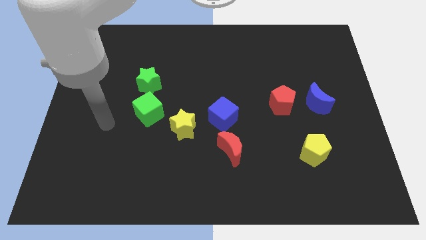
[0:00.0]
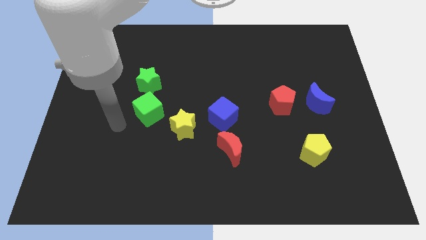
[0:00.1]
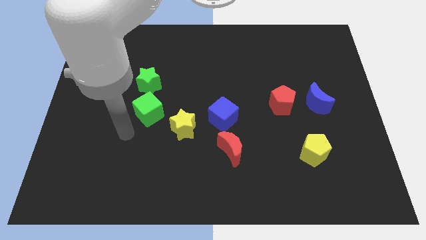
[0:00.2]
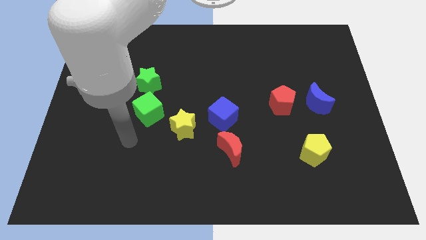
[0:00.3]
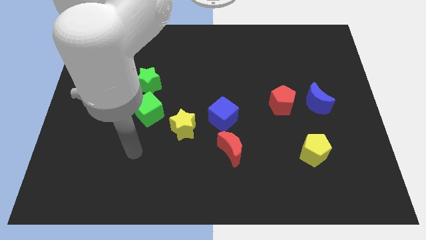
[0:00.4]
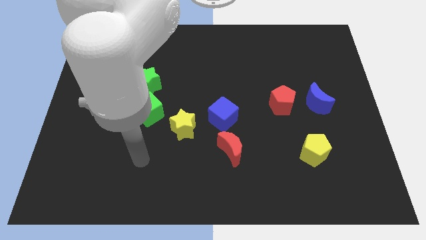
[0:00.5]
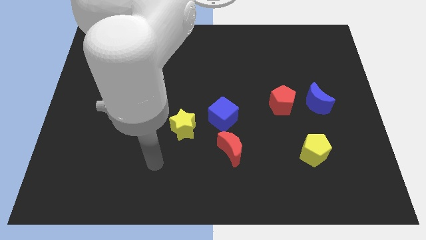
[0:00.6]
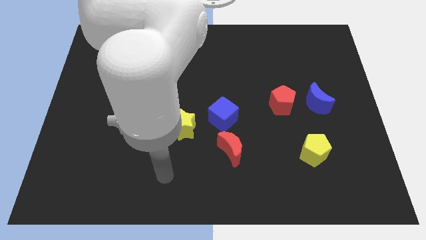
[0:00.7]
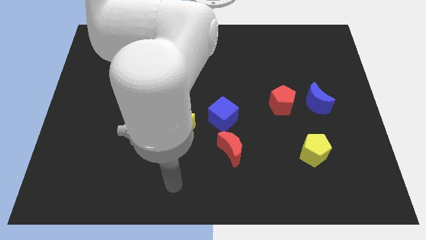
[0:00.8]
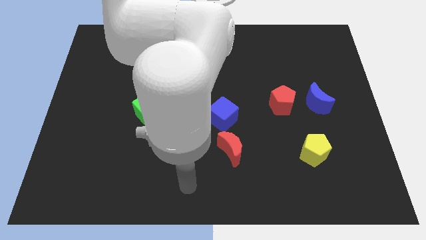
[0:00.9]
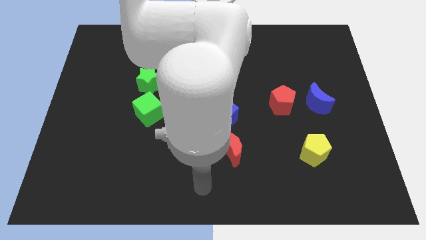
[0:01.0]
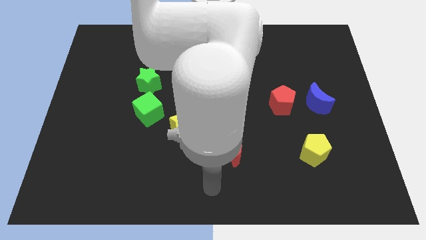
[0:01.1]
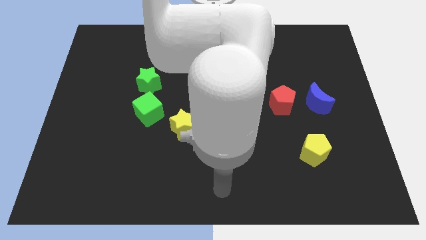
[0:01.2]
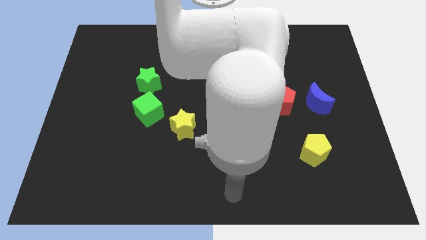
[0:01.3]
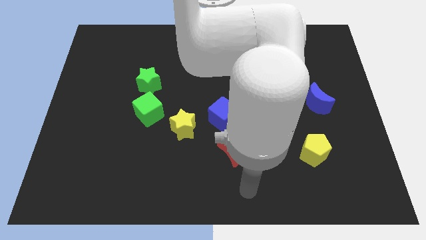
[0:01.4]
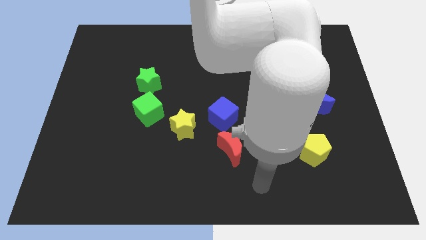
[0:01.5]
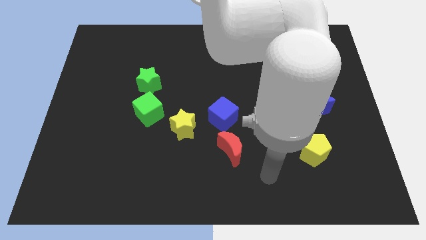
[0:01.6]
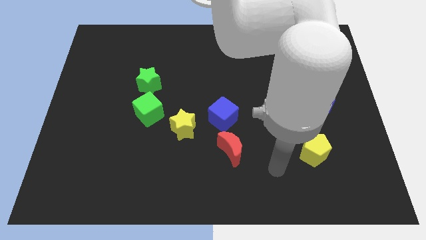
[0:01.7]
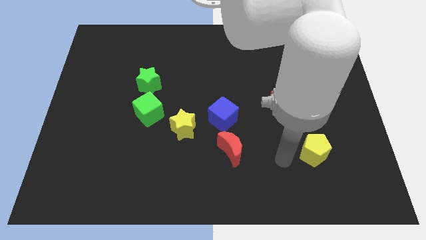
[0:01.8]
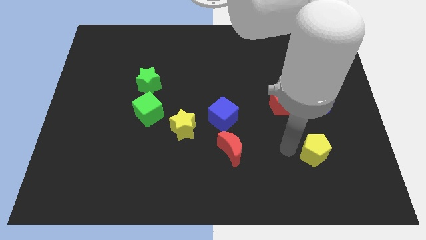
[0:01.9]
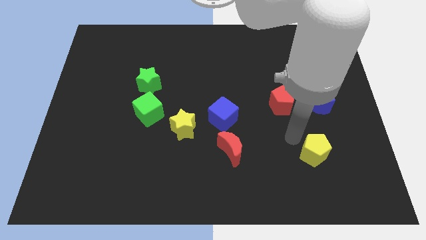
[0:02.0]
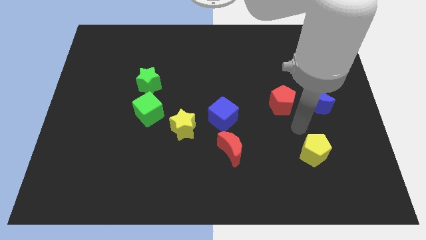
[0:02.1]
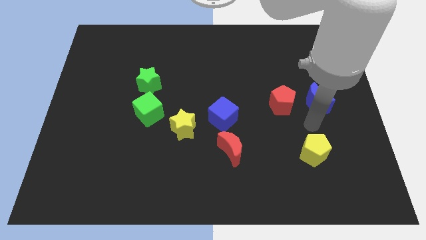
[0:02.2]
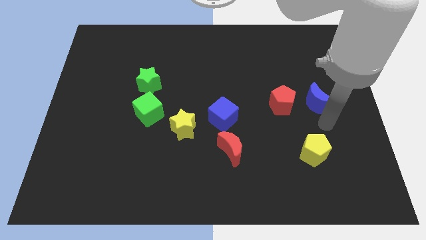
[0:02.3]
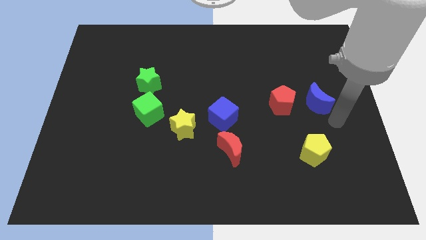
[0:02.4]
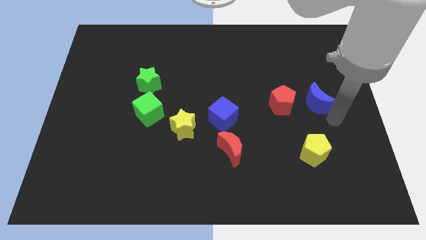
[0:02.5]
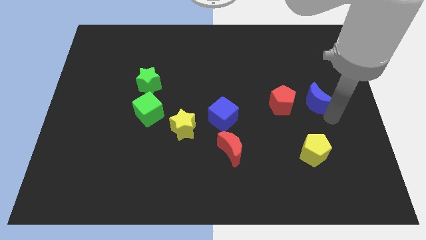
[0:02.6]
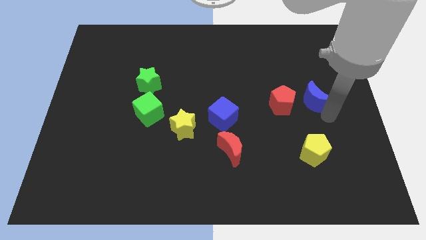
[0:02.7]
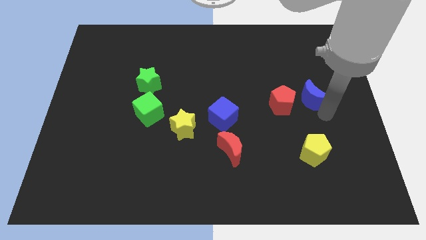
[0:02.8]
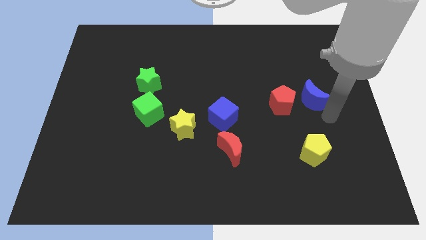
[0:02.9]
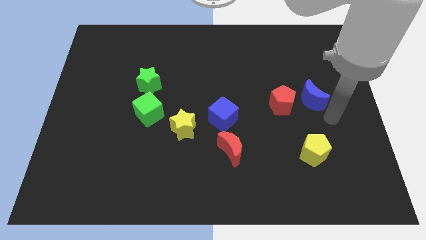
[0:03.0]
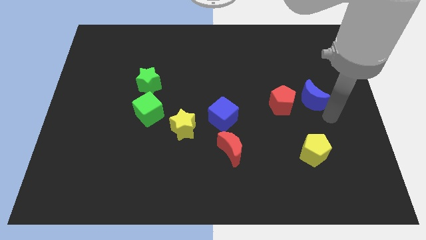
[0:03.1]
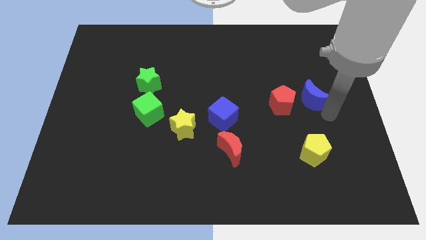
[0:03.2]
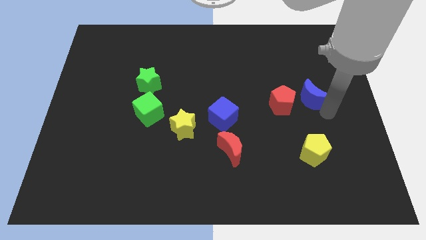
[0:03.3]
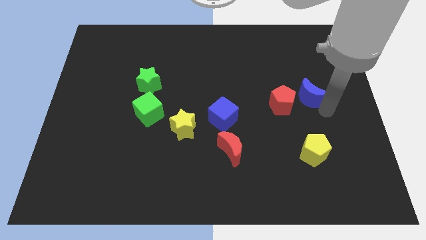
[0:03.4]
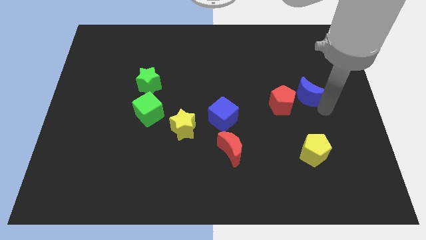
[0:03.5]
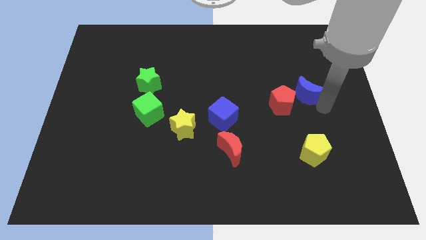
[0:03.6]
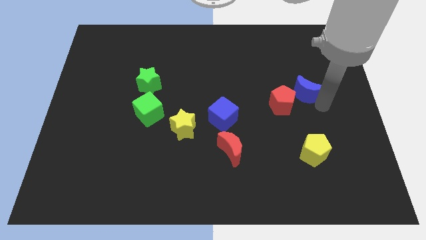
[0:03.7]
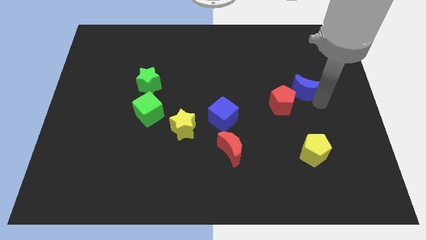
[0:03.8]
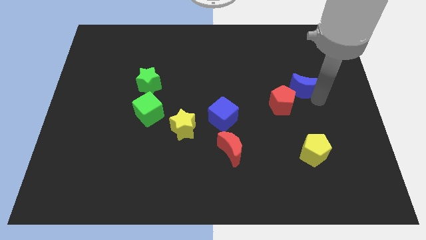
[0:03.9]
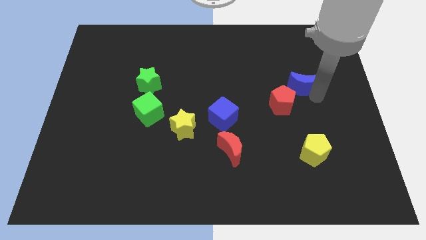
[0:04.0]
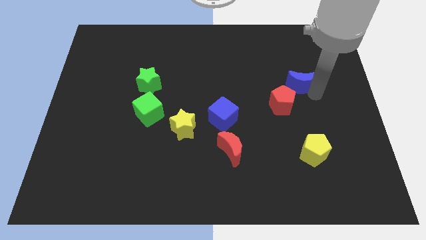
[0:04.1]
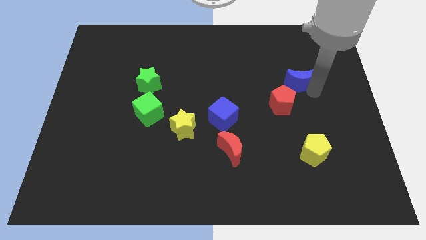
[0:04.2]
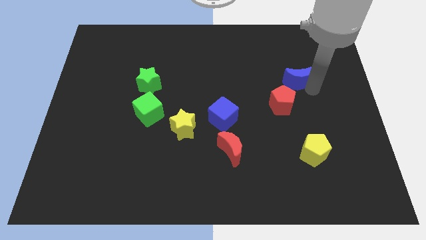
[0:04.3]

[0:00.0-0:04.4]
slightly push the blue moon diagonally upwards and left

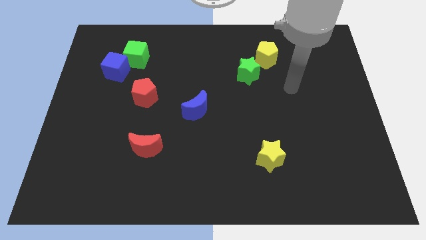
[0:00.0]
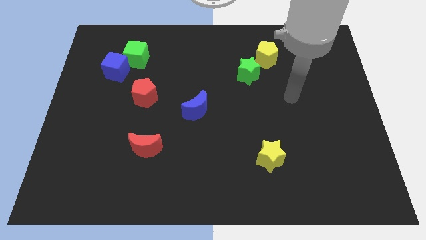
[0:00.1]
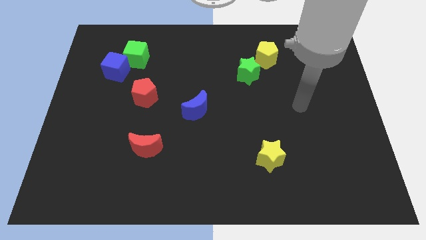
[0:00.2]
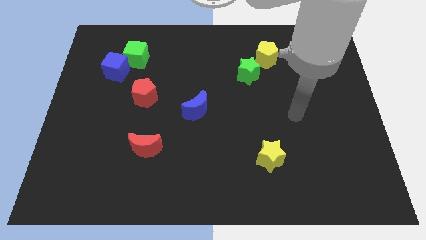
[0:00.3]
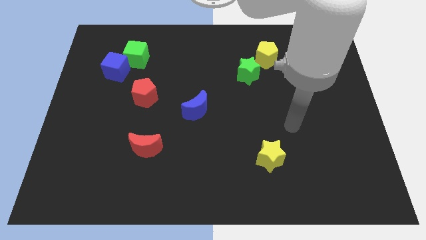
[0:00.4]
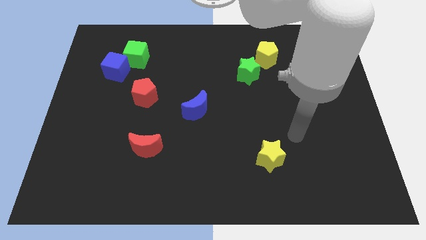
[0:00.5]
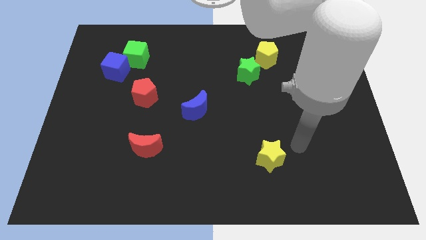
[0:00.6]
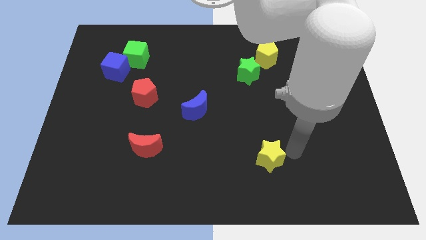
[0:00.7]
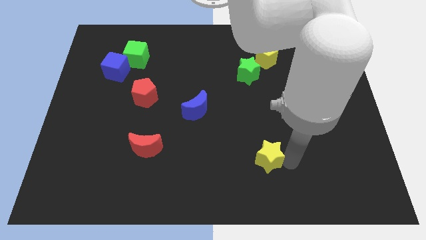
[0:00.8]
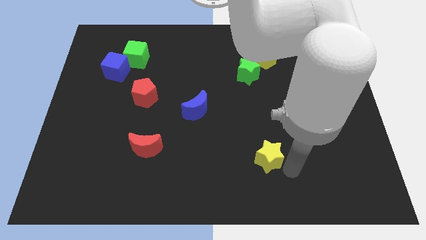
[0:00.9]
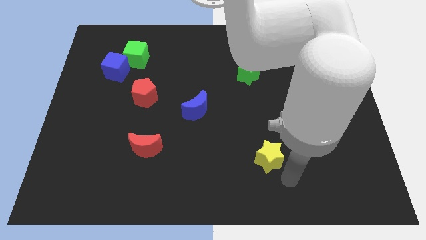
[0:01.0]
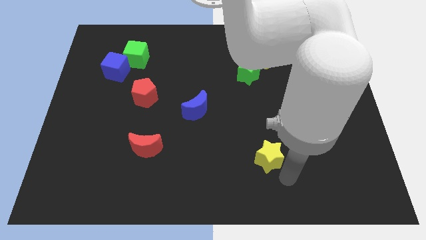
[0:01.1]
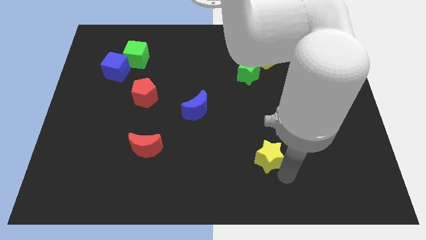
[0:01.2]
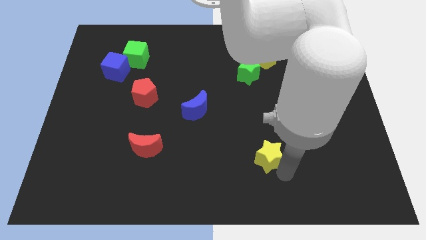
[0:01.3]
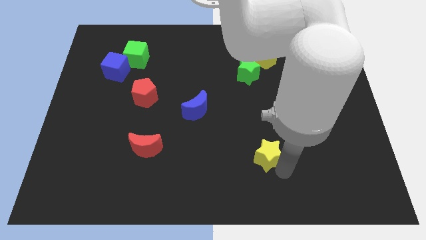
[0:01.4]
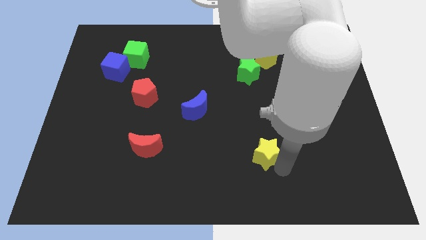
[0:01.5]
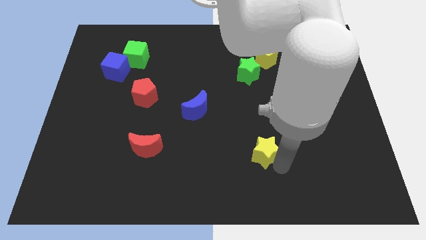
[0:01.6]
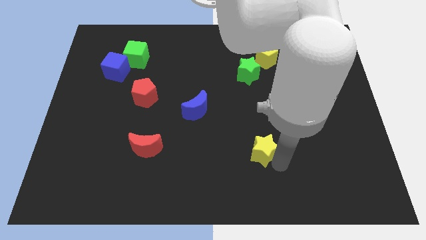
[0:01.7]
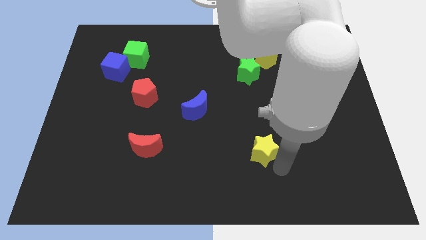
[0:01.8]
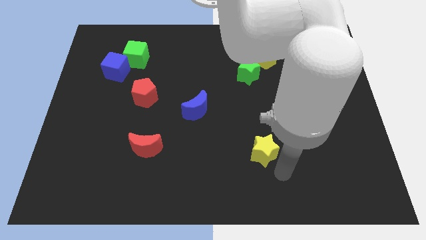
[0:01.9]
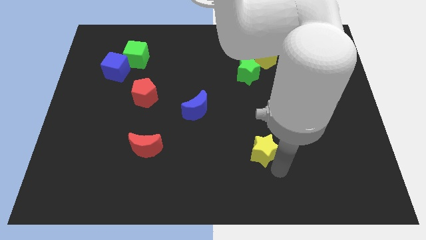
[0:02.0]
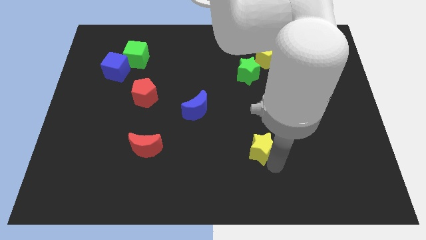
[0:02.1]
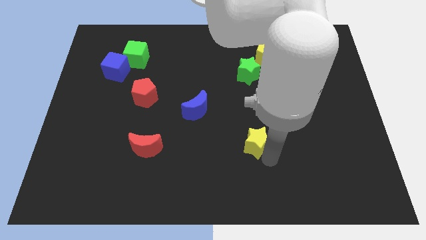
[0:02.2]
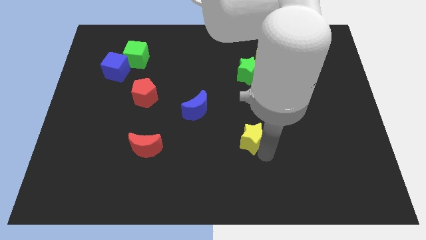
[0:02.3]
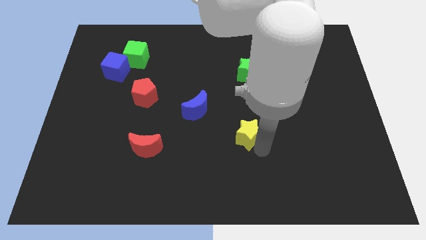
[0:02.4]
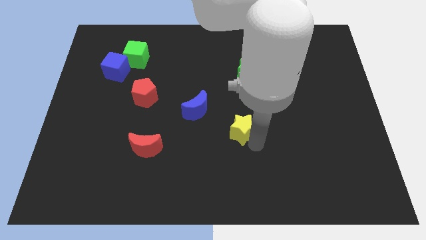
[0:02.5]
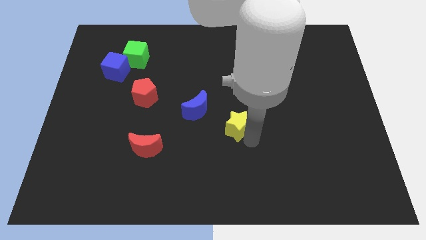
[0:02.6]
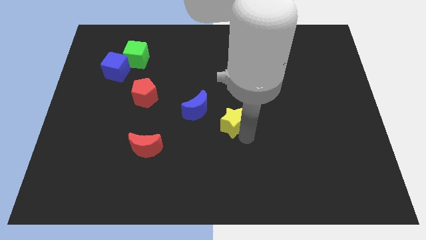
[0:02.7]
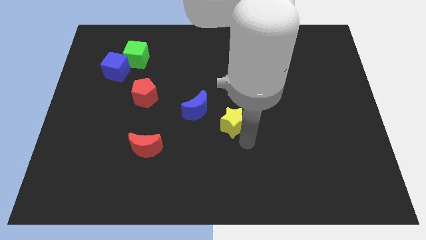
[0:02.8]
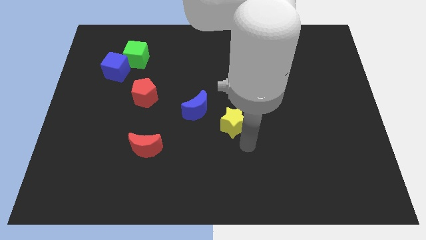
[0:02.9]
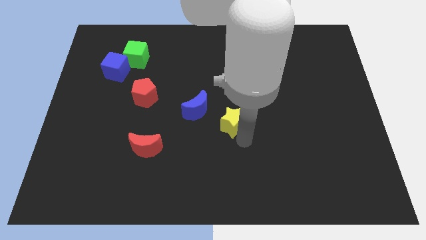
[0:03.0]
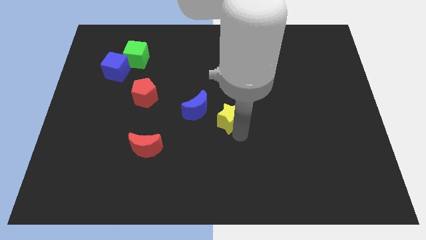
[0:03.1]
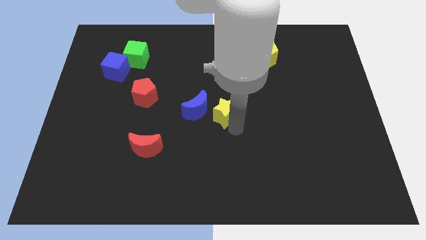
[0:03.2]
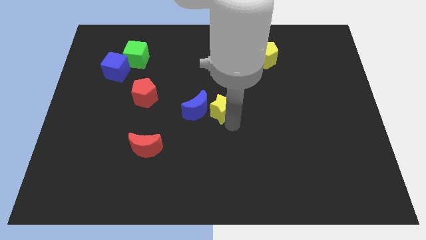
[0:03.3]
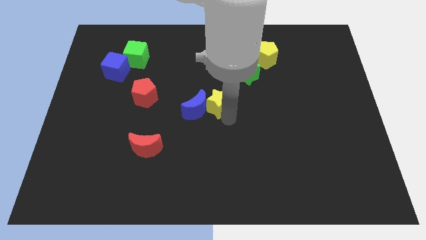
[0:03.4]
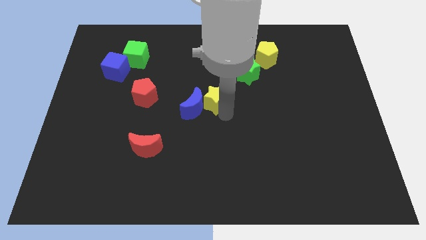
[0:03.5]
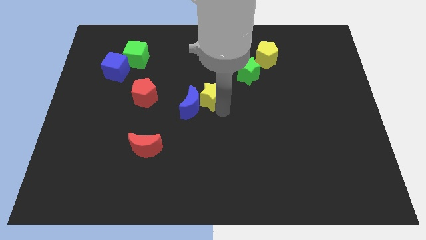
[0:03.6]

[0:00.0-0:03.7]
slide the yellow star up and then to the left

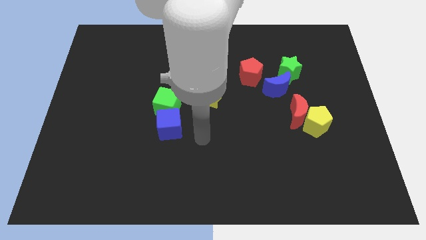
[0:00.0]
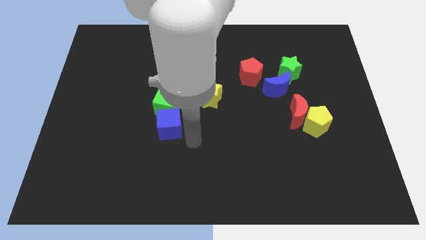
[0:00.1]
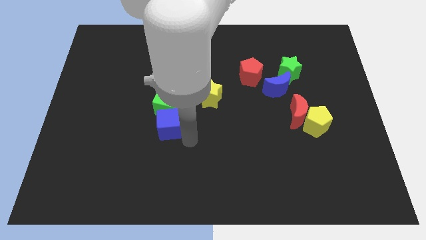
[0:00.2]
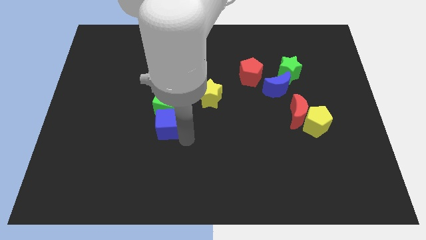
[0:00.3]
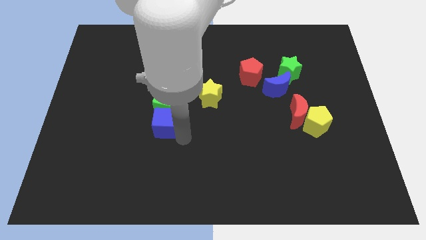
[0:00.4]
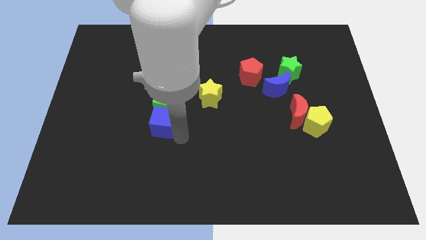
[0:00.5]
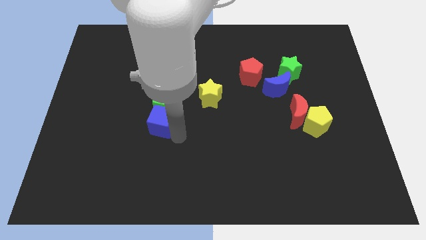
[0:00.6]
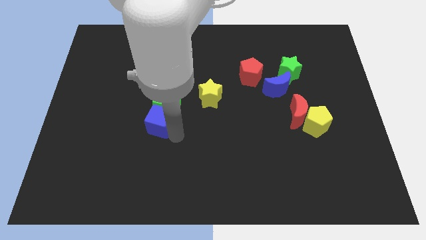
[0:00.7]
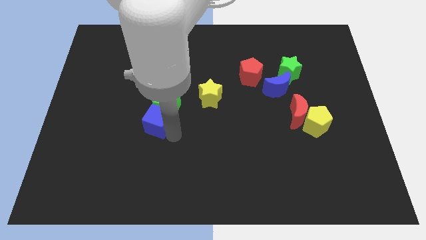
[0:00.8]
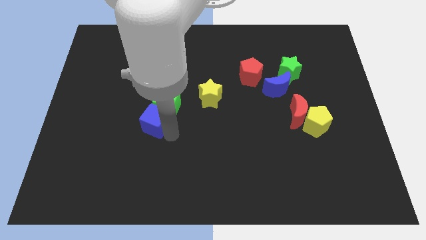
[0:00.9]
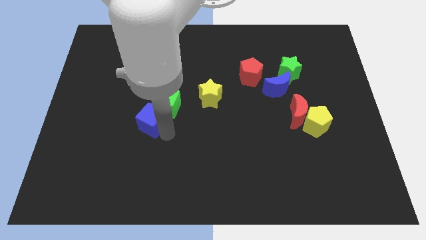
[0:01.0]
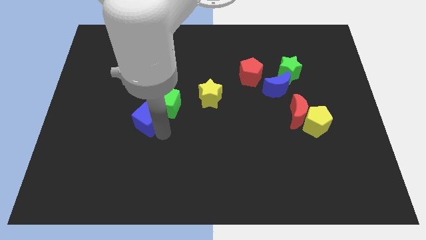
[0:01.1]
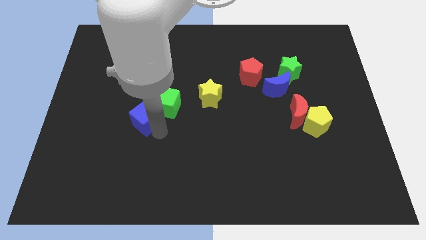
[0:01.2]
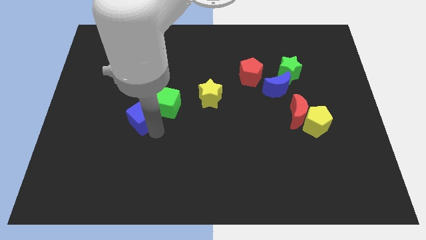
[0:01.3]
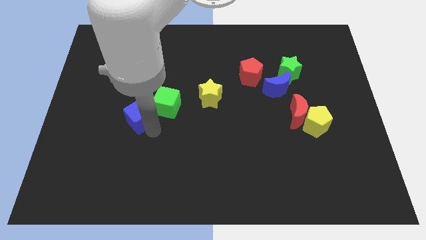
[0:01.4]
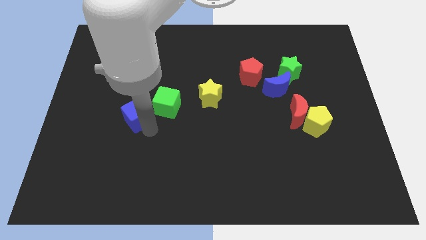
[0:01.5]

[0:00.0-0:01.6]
push the blue cube upwards and then left somewhat
